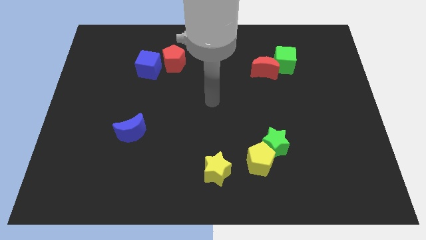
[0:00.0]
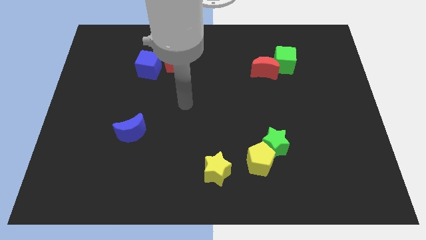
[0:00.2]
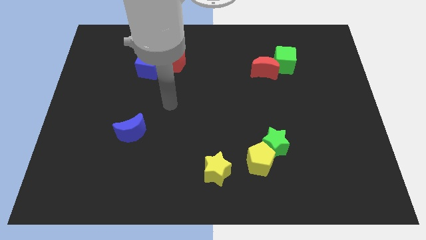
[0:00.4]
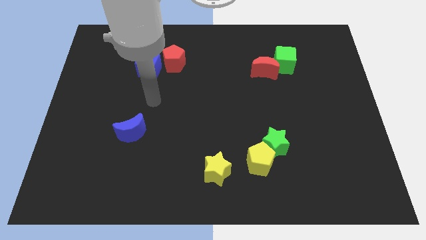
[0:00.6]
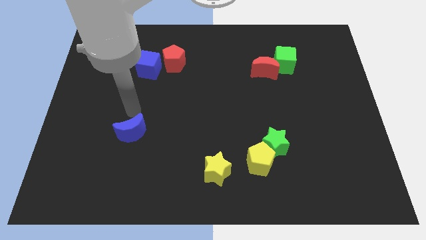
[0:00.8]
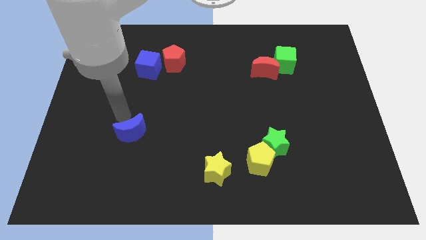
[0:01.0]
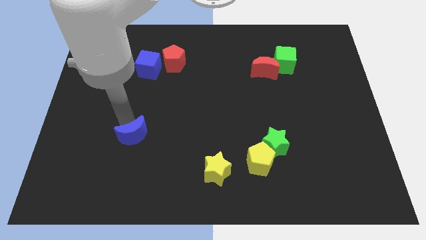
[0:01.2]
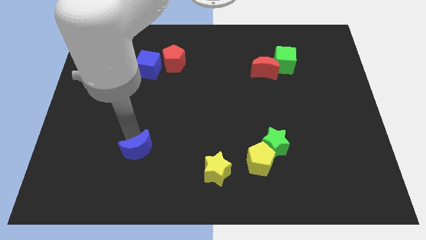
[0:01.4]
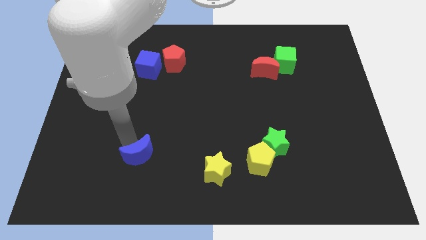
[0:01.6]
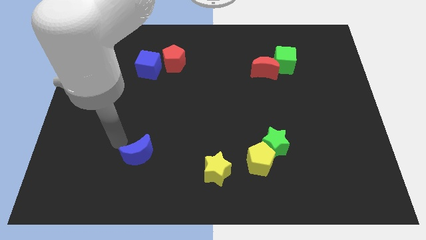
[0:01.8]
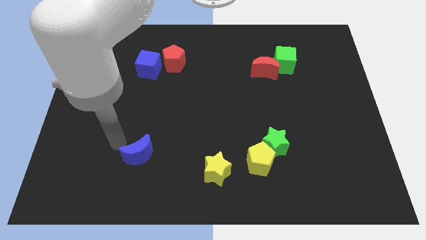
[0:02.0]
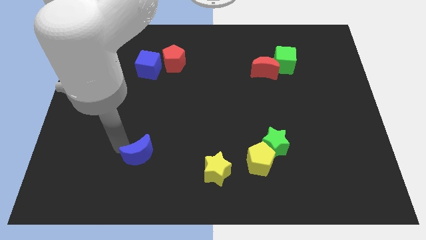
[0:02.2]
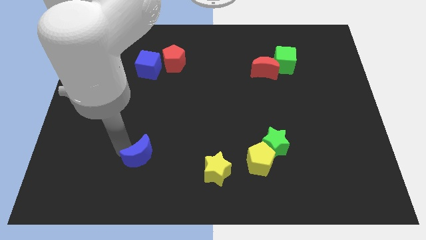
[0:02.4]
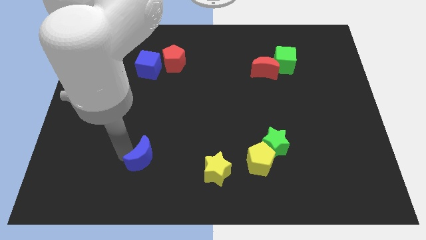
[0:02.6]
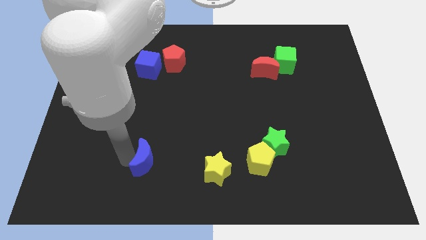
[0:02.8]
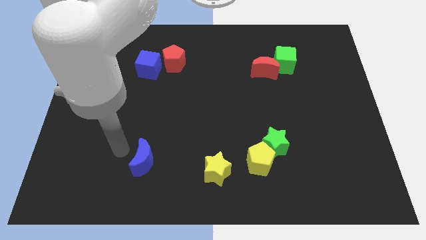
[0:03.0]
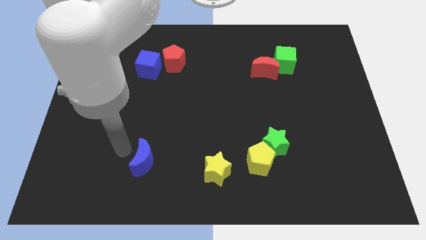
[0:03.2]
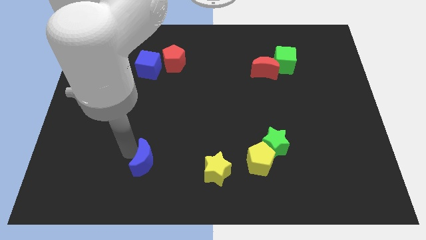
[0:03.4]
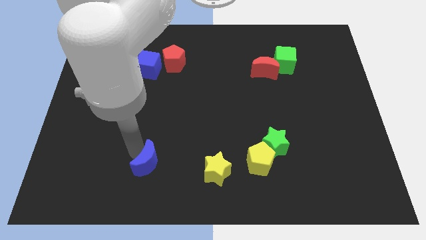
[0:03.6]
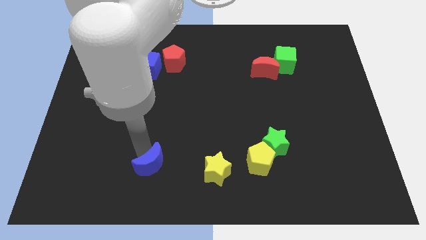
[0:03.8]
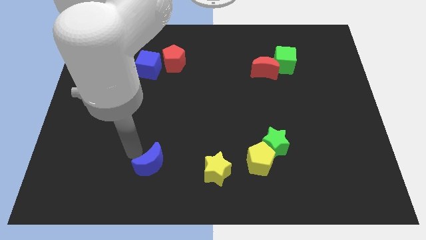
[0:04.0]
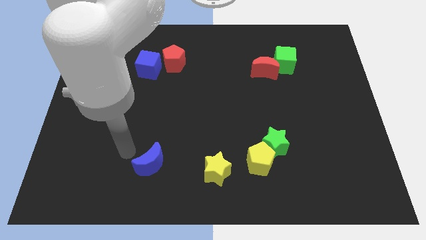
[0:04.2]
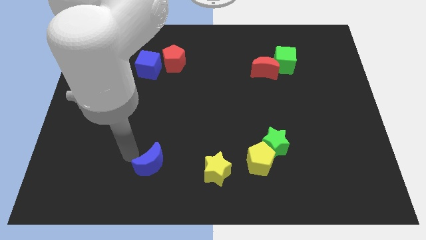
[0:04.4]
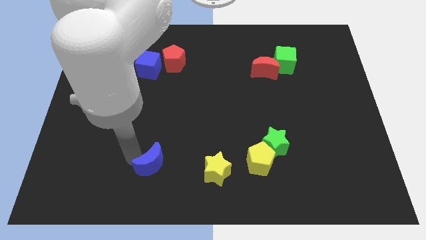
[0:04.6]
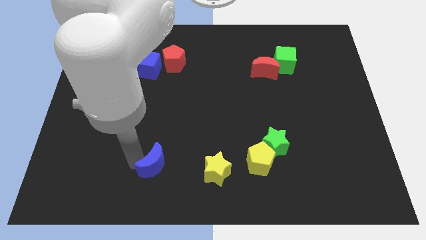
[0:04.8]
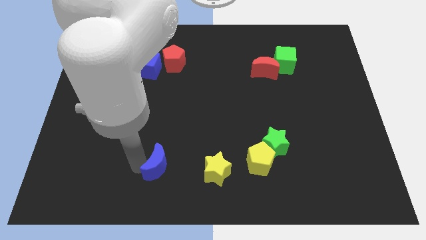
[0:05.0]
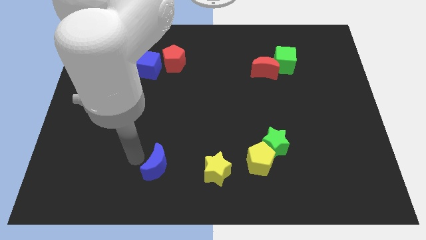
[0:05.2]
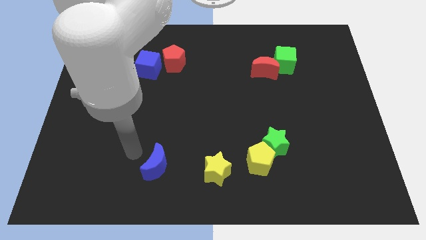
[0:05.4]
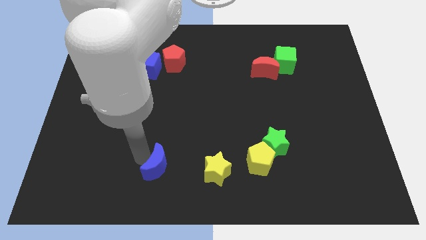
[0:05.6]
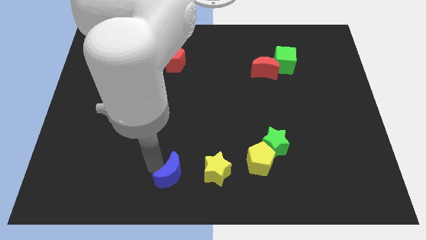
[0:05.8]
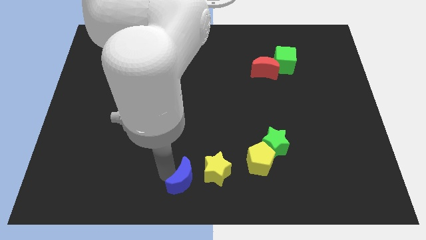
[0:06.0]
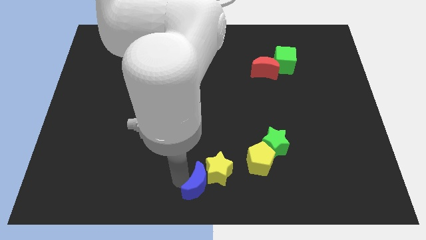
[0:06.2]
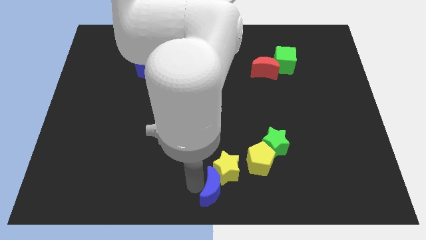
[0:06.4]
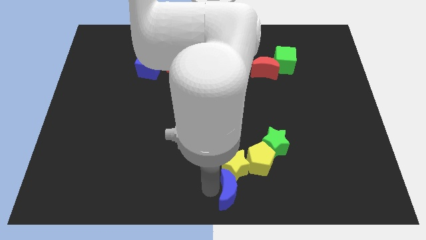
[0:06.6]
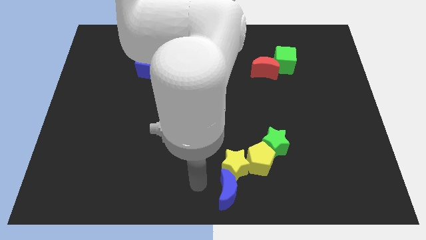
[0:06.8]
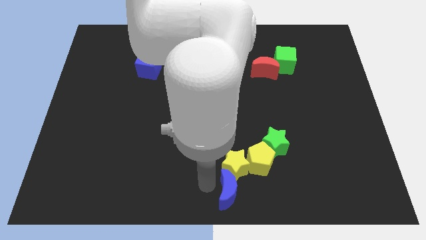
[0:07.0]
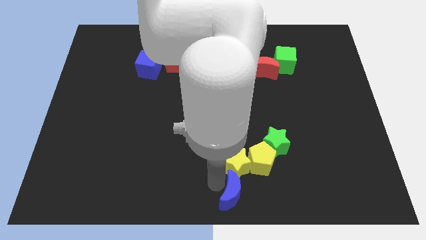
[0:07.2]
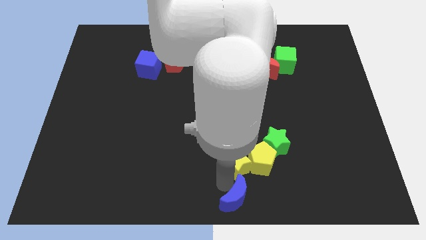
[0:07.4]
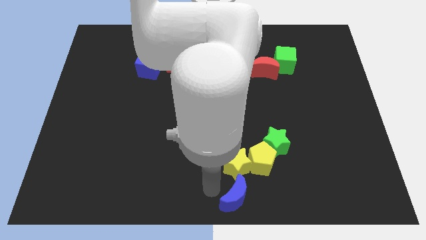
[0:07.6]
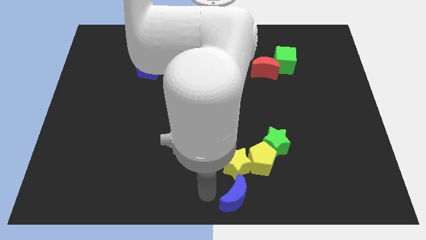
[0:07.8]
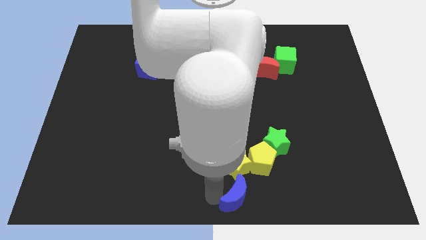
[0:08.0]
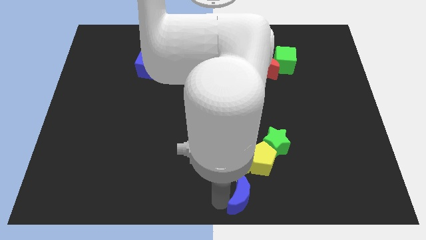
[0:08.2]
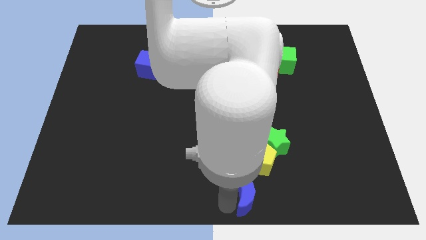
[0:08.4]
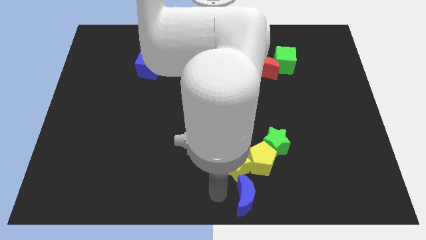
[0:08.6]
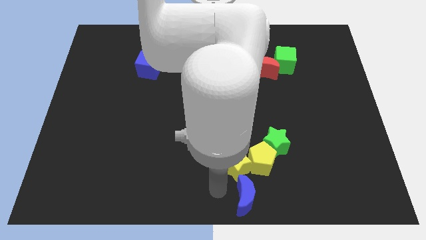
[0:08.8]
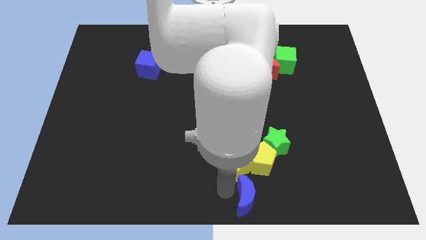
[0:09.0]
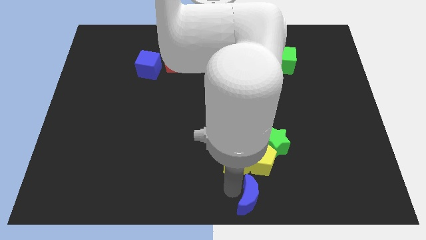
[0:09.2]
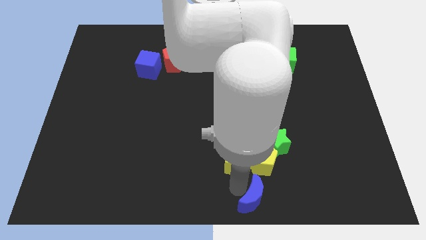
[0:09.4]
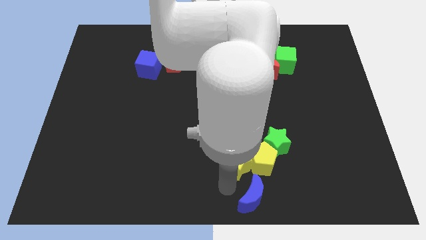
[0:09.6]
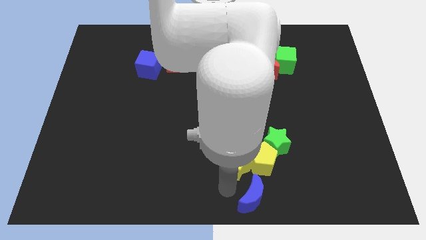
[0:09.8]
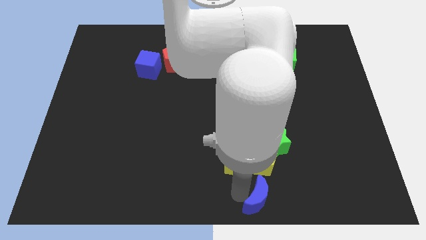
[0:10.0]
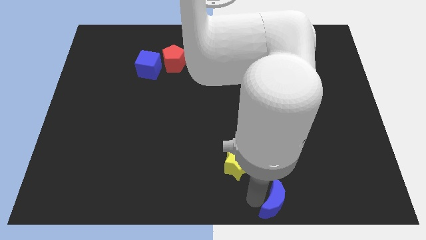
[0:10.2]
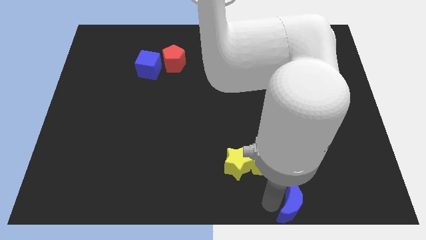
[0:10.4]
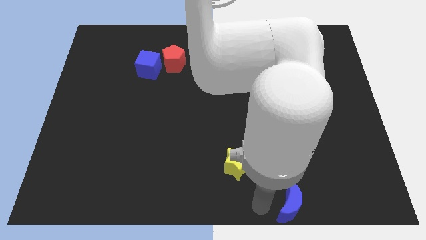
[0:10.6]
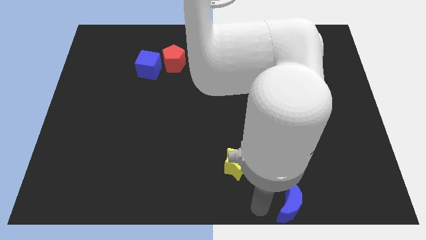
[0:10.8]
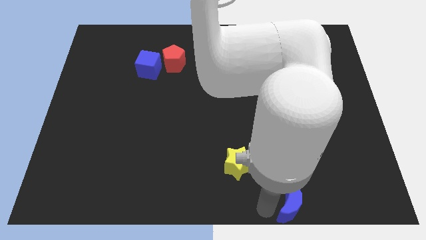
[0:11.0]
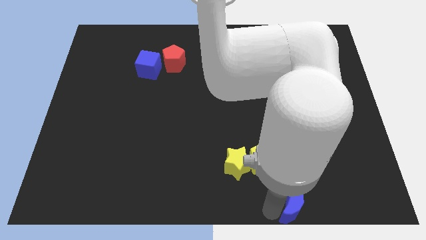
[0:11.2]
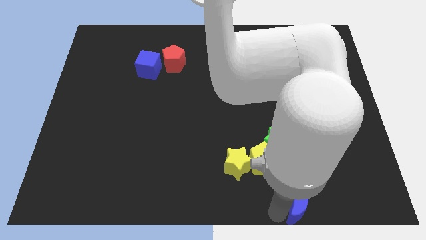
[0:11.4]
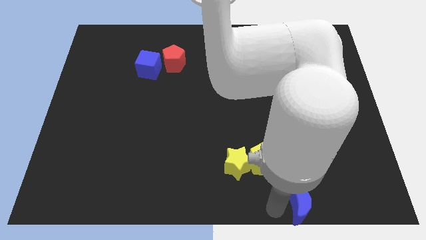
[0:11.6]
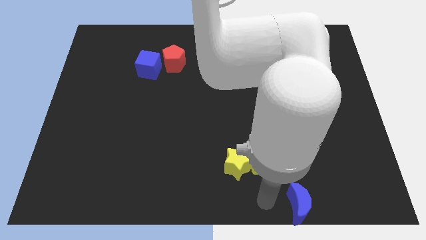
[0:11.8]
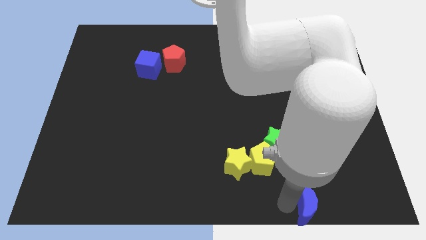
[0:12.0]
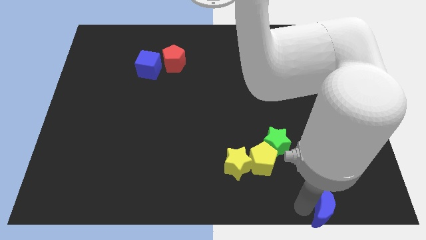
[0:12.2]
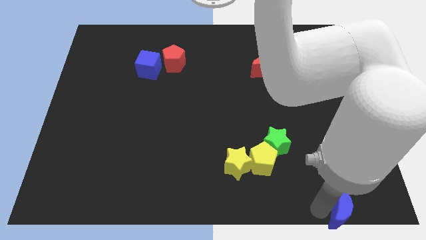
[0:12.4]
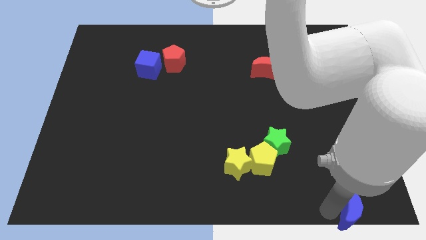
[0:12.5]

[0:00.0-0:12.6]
slide the blue moon to the lower right corner
